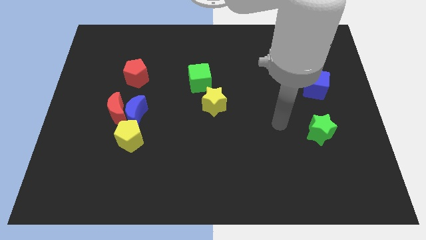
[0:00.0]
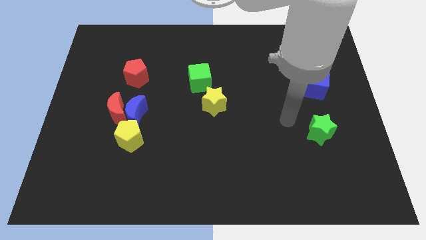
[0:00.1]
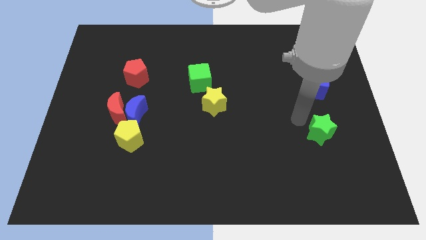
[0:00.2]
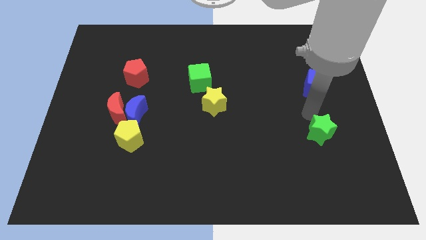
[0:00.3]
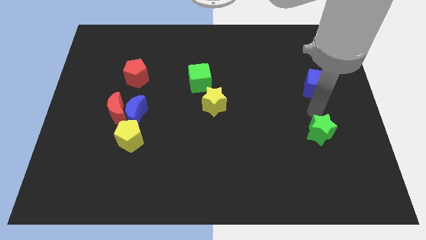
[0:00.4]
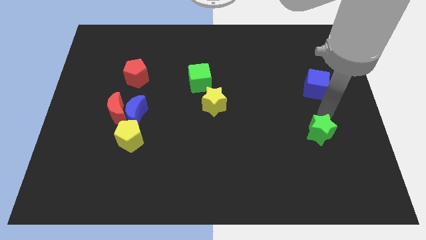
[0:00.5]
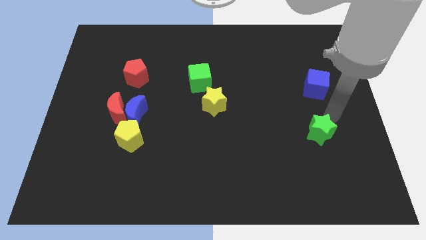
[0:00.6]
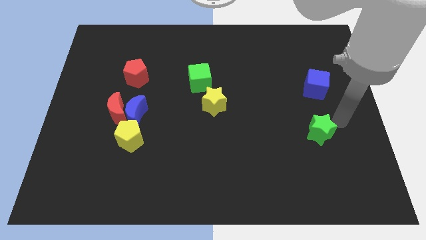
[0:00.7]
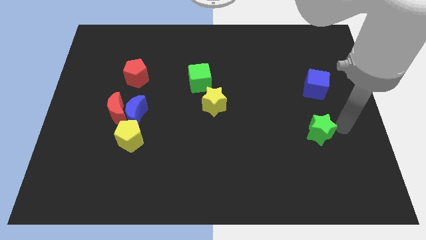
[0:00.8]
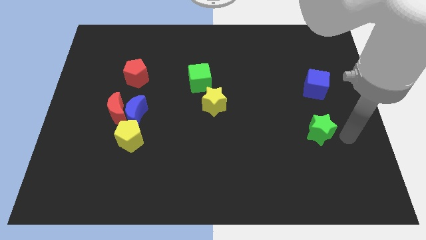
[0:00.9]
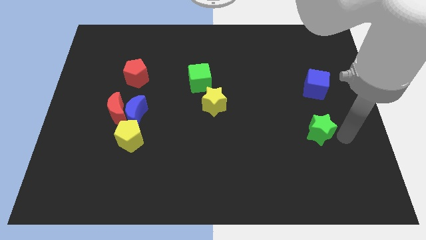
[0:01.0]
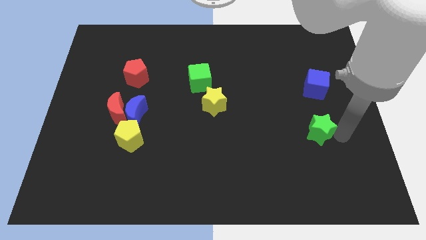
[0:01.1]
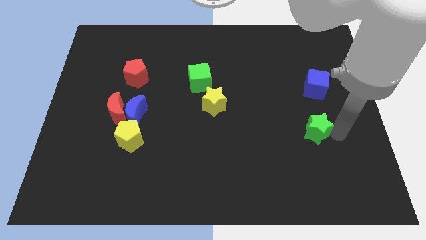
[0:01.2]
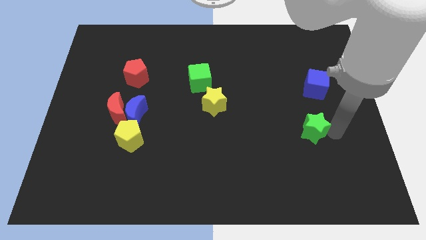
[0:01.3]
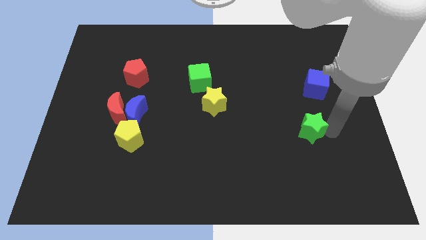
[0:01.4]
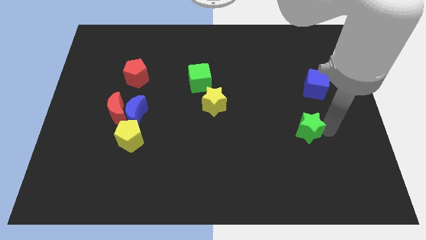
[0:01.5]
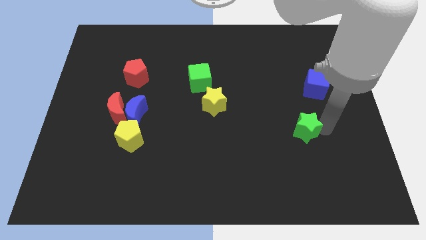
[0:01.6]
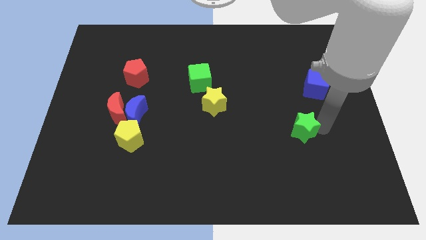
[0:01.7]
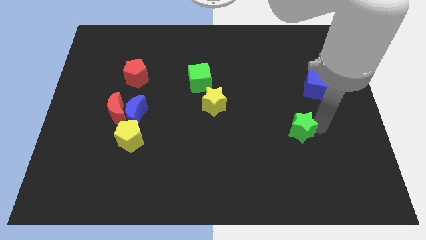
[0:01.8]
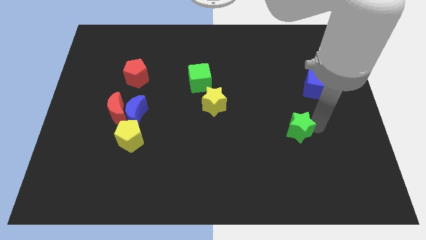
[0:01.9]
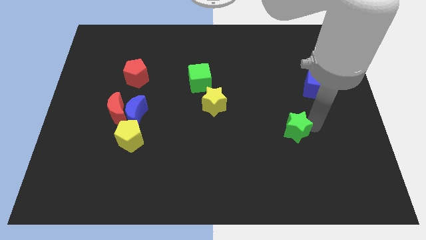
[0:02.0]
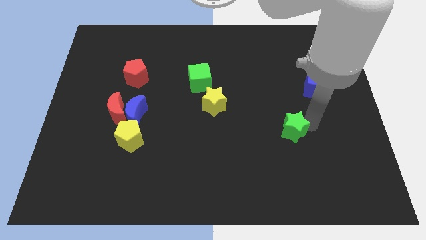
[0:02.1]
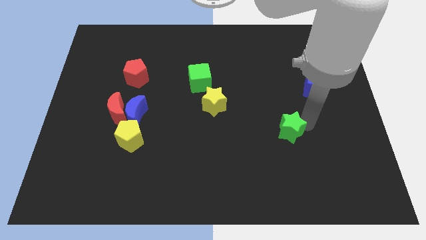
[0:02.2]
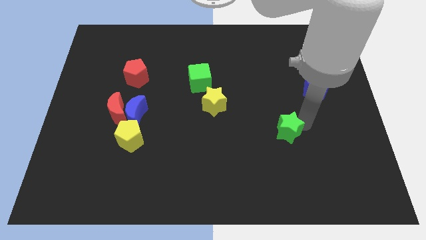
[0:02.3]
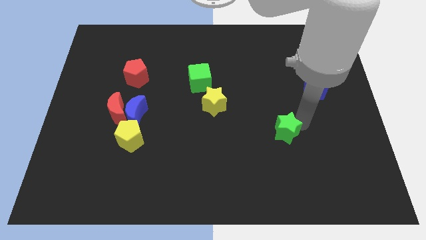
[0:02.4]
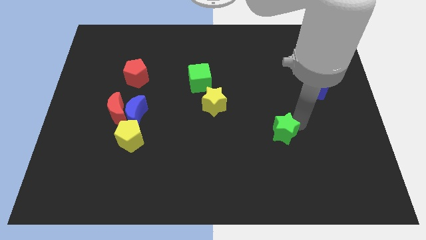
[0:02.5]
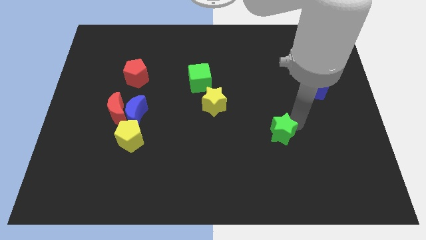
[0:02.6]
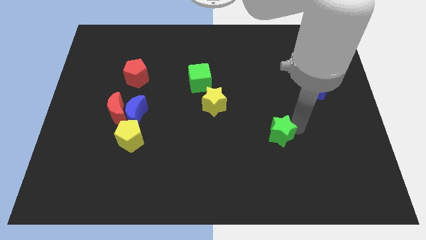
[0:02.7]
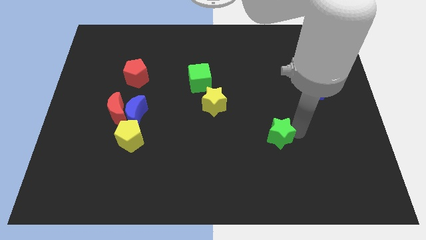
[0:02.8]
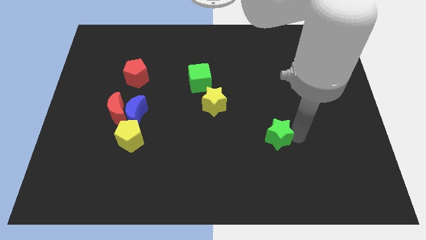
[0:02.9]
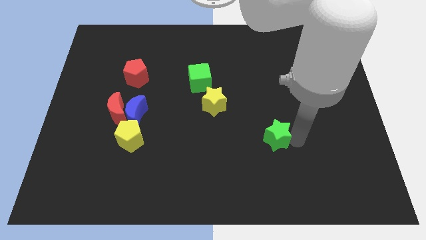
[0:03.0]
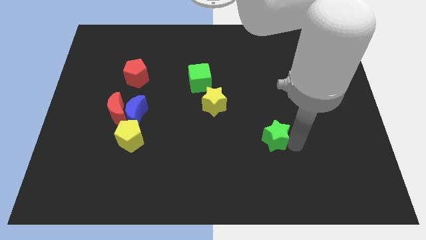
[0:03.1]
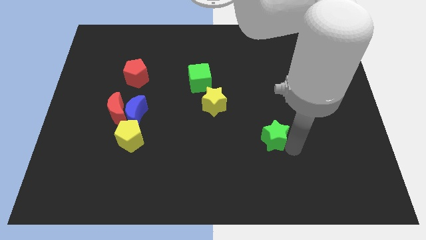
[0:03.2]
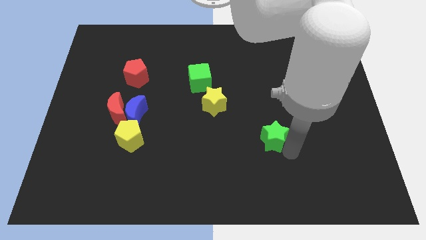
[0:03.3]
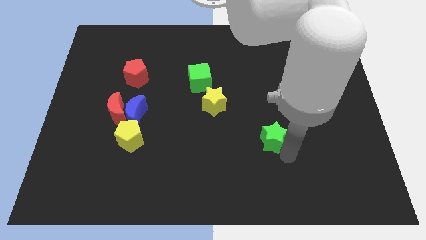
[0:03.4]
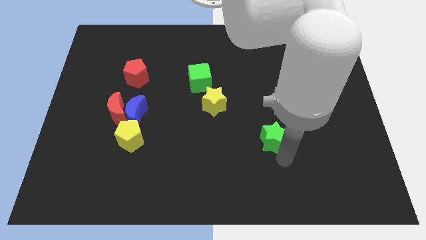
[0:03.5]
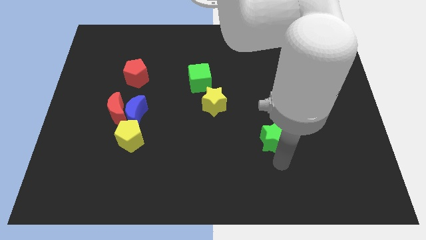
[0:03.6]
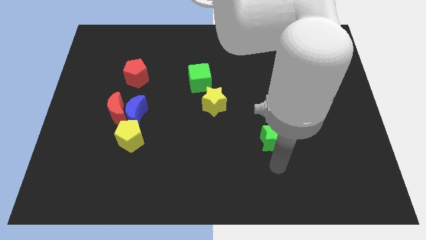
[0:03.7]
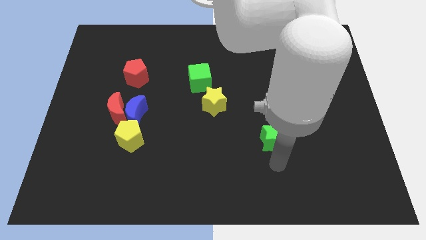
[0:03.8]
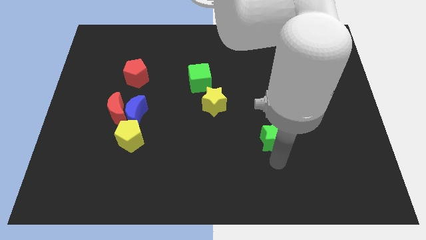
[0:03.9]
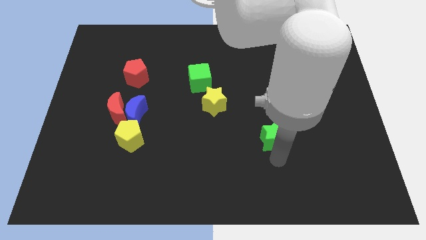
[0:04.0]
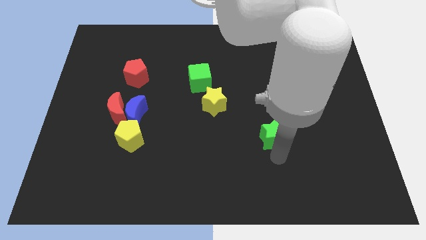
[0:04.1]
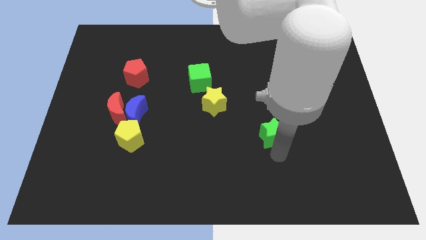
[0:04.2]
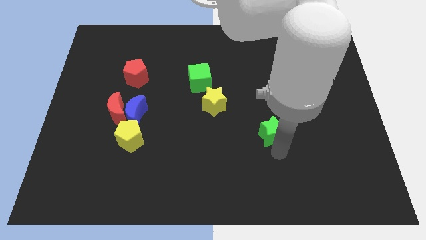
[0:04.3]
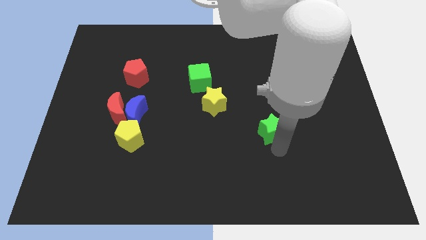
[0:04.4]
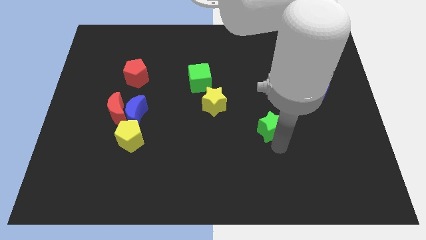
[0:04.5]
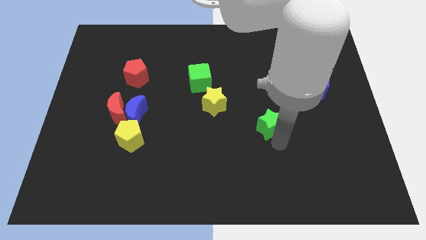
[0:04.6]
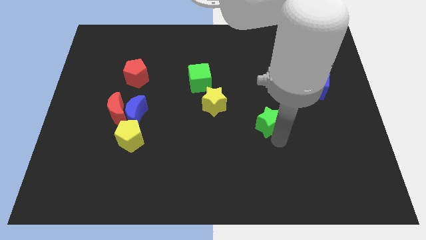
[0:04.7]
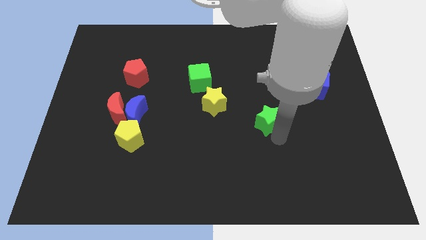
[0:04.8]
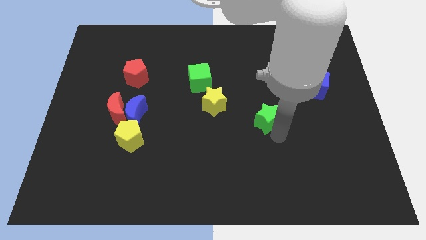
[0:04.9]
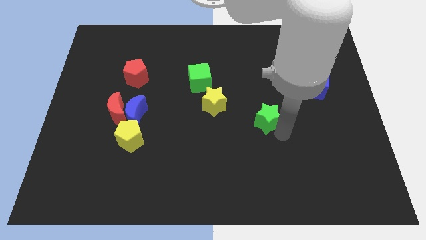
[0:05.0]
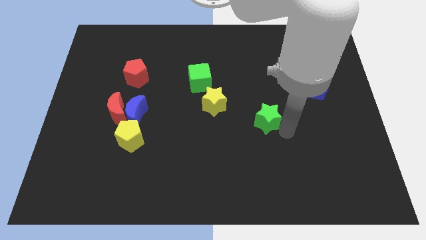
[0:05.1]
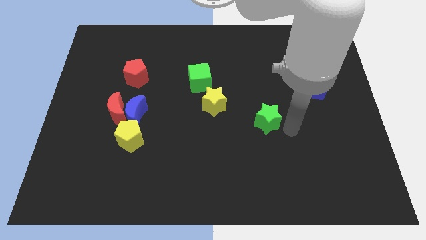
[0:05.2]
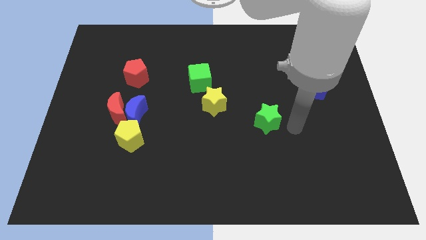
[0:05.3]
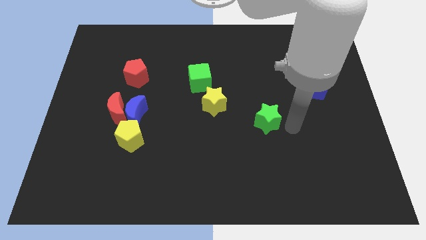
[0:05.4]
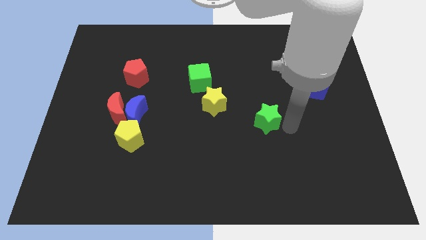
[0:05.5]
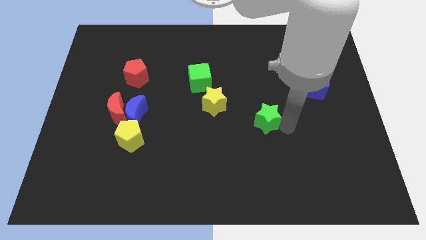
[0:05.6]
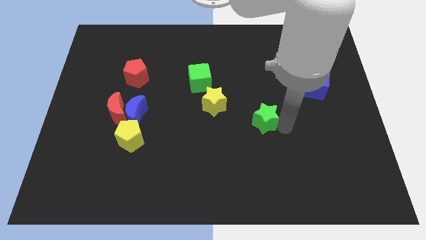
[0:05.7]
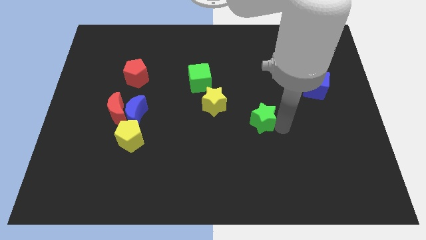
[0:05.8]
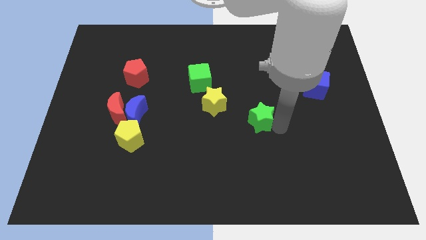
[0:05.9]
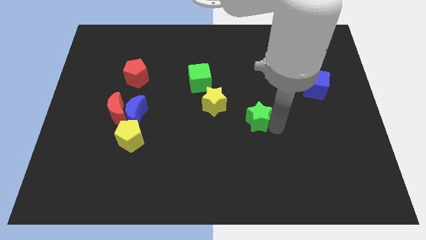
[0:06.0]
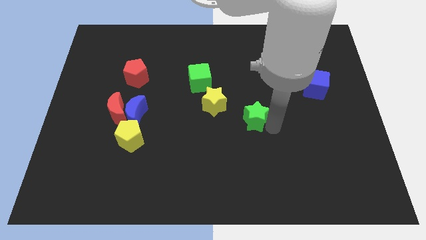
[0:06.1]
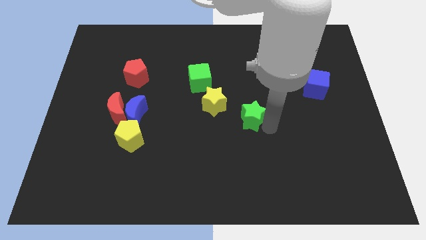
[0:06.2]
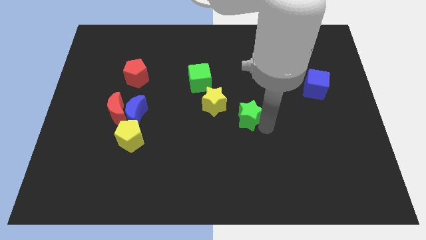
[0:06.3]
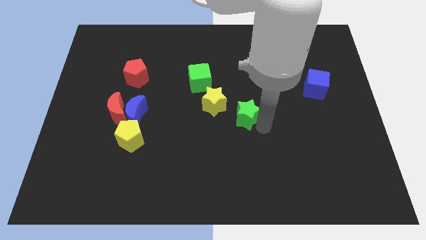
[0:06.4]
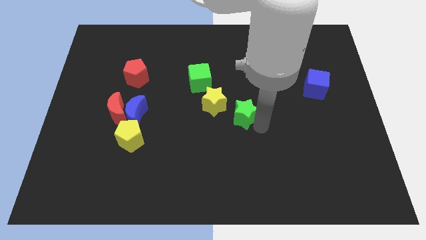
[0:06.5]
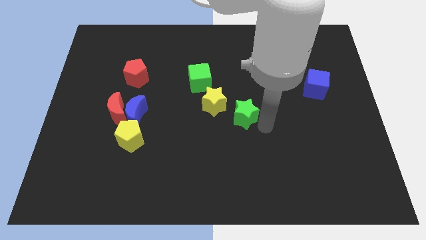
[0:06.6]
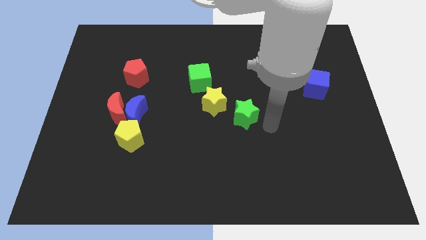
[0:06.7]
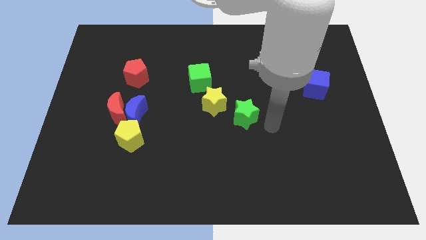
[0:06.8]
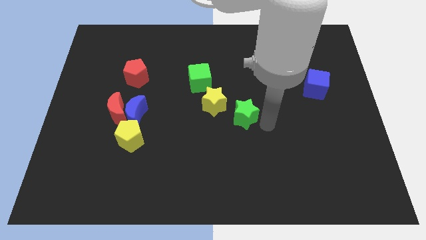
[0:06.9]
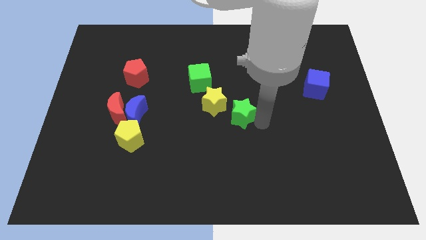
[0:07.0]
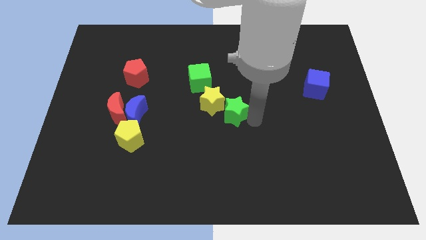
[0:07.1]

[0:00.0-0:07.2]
move the green star towards the yellow star
